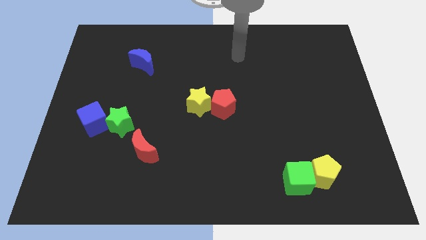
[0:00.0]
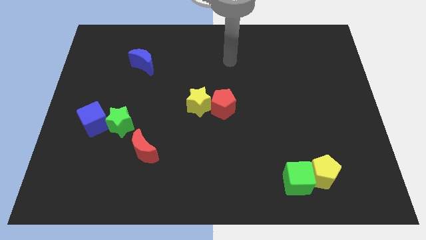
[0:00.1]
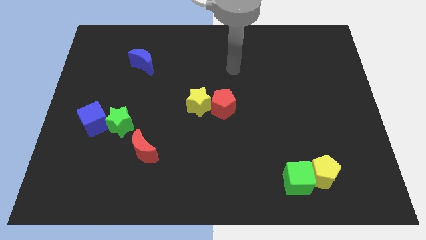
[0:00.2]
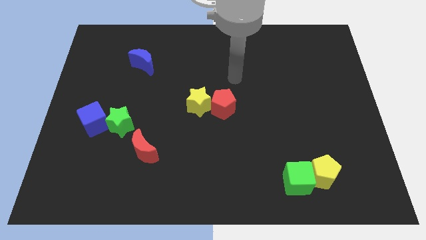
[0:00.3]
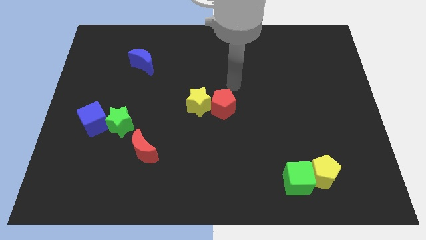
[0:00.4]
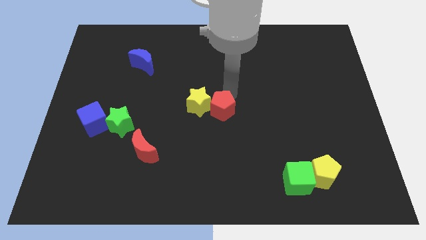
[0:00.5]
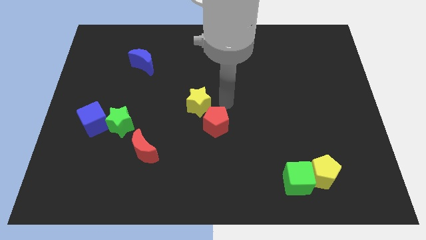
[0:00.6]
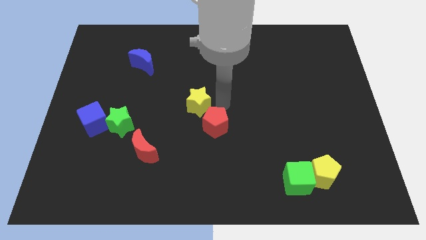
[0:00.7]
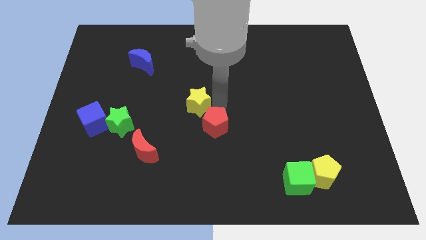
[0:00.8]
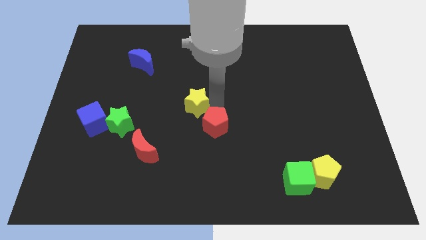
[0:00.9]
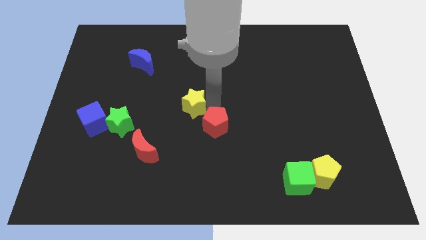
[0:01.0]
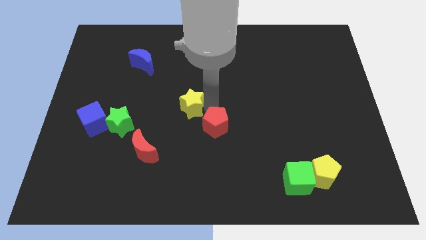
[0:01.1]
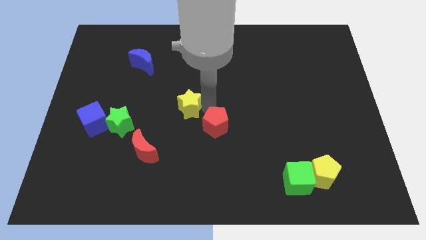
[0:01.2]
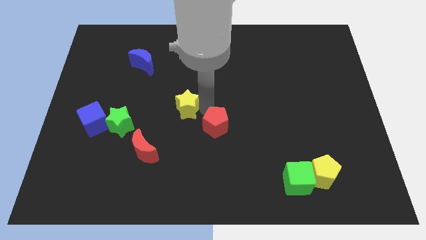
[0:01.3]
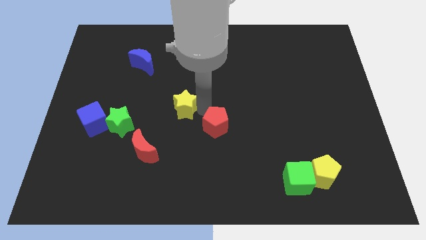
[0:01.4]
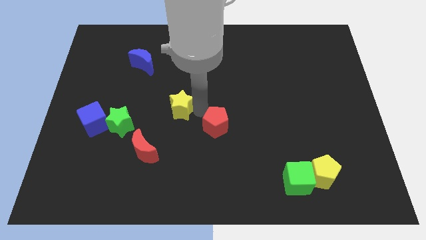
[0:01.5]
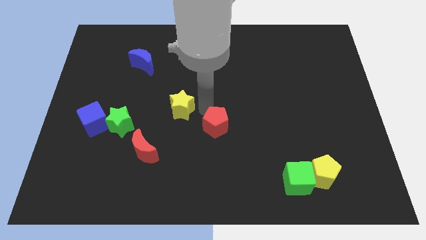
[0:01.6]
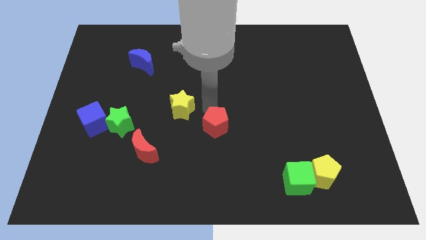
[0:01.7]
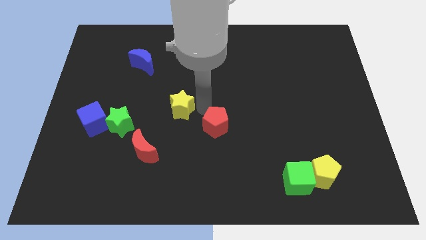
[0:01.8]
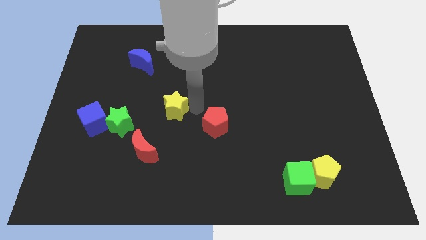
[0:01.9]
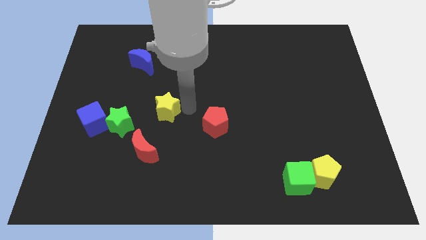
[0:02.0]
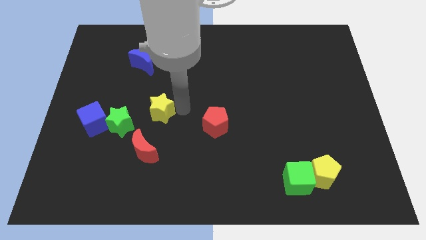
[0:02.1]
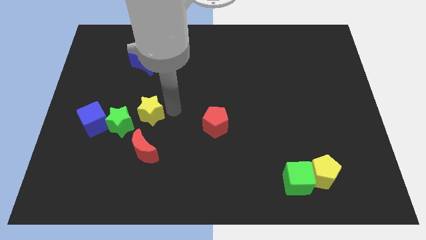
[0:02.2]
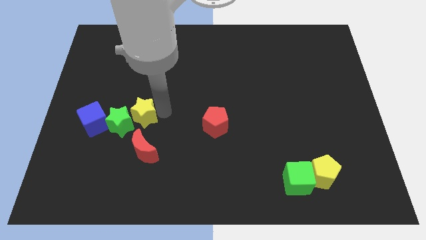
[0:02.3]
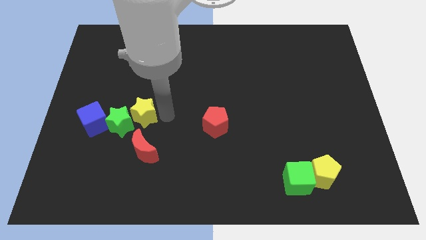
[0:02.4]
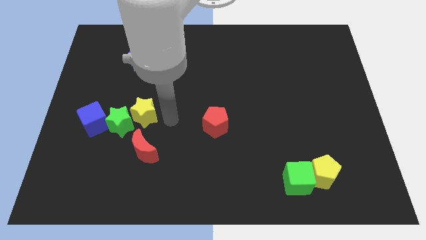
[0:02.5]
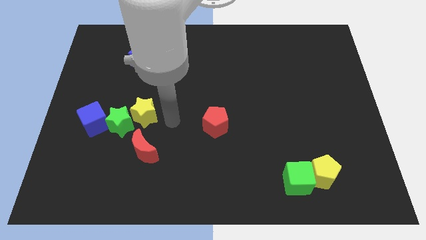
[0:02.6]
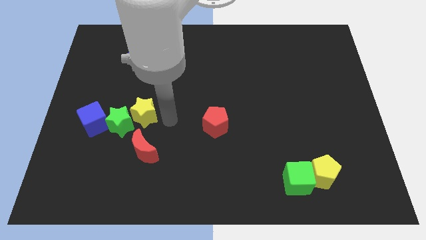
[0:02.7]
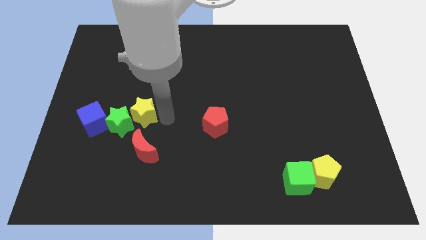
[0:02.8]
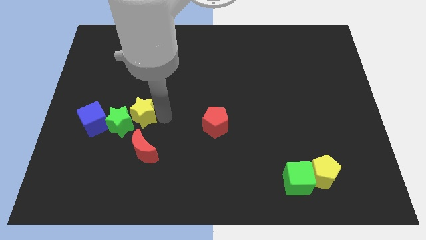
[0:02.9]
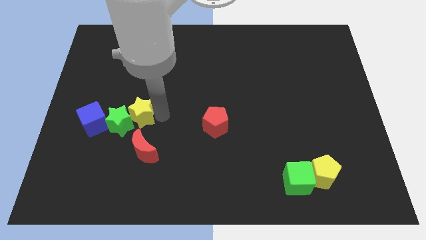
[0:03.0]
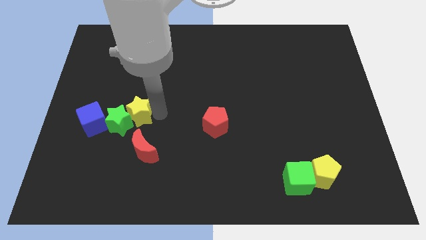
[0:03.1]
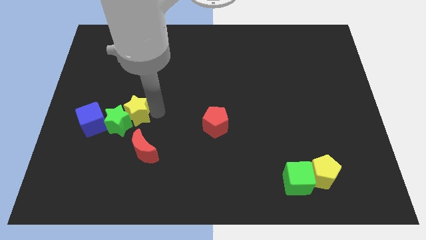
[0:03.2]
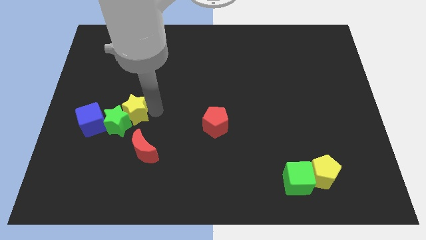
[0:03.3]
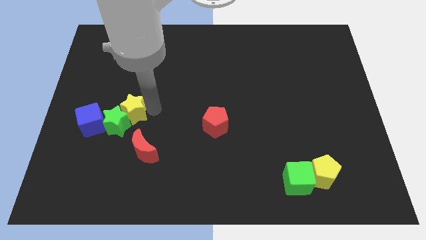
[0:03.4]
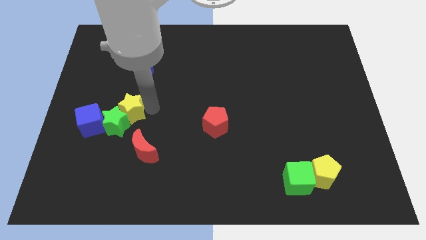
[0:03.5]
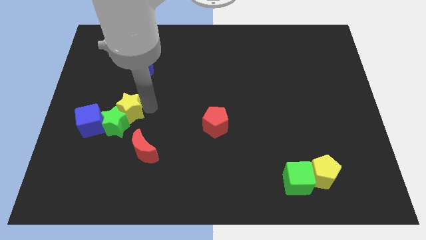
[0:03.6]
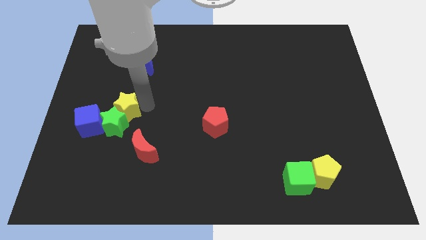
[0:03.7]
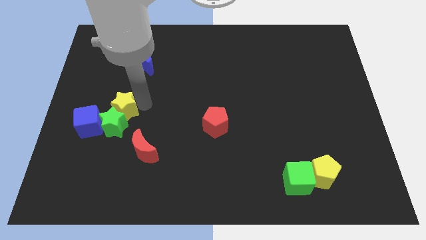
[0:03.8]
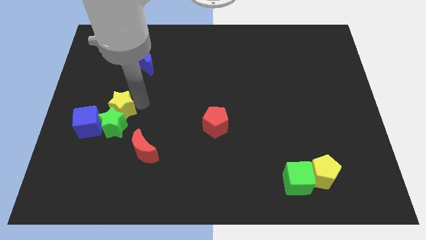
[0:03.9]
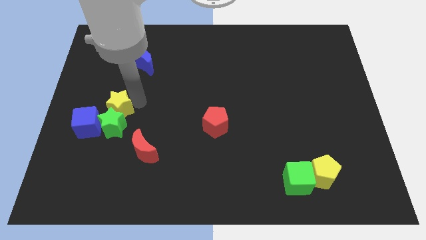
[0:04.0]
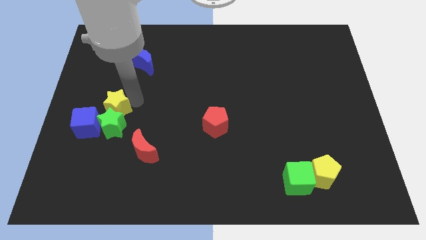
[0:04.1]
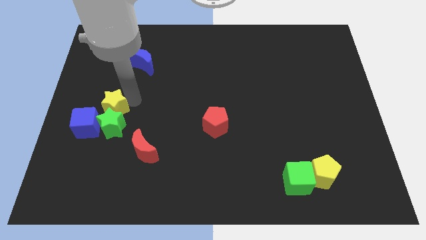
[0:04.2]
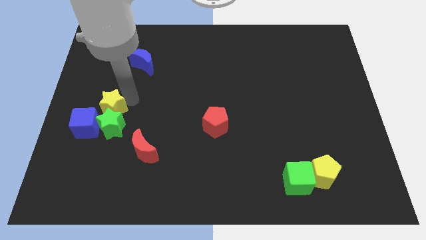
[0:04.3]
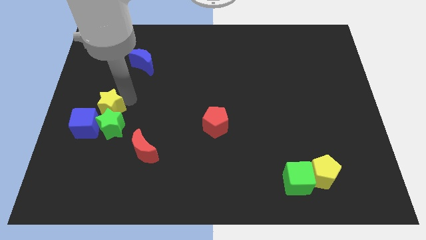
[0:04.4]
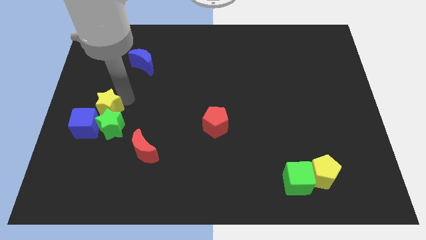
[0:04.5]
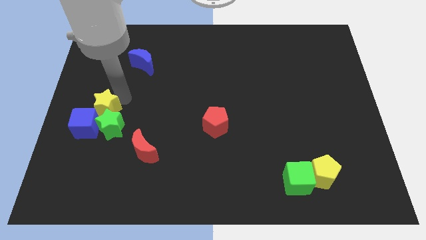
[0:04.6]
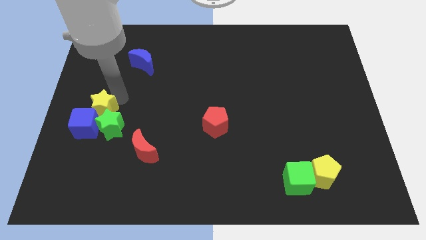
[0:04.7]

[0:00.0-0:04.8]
push the yellow star to the left side

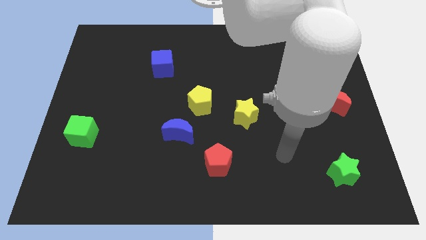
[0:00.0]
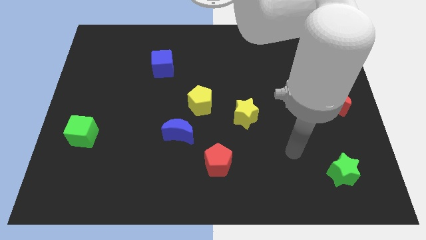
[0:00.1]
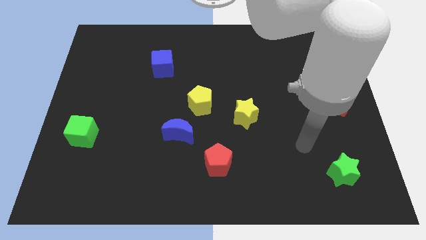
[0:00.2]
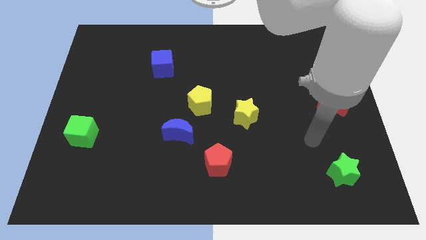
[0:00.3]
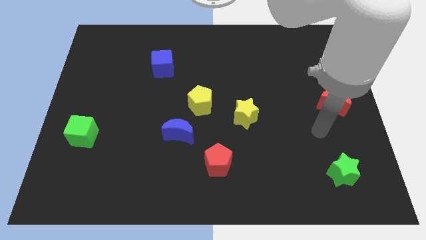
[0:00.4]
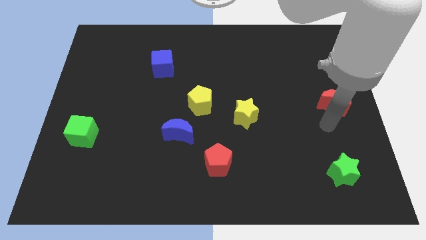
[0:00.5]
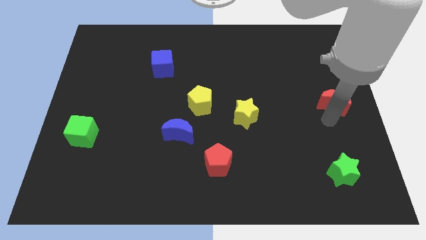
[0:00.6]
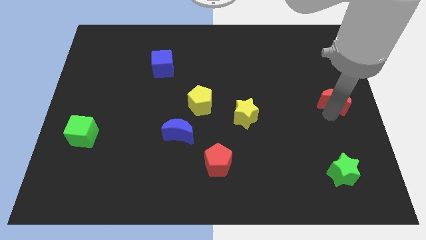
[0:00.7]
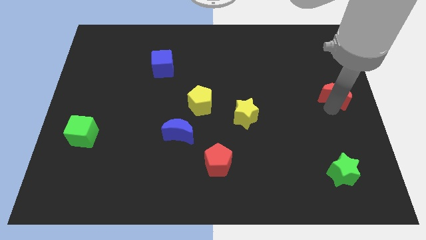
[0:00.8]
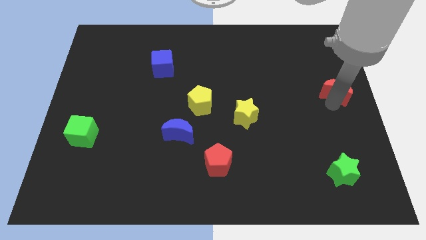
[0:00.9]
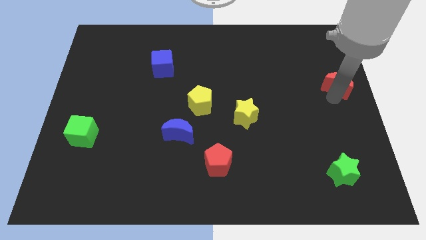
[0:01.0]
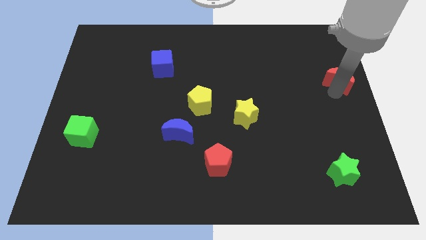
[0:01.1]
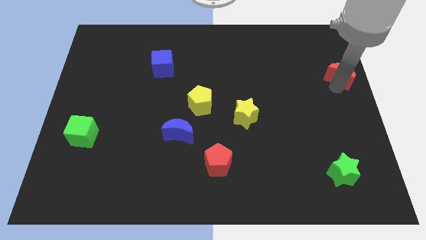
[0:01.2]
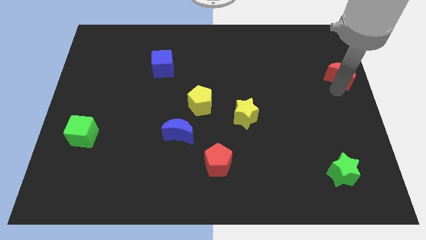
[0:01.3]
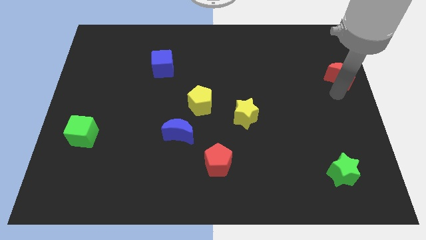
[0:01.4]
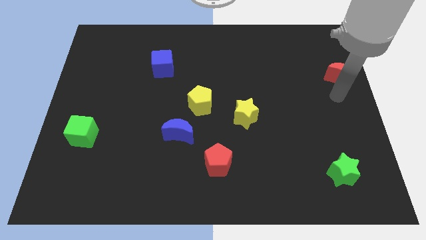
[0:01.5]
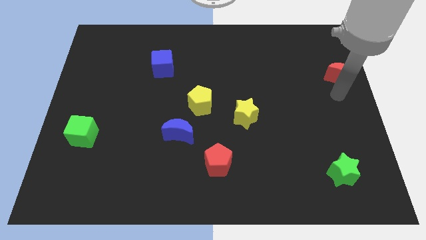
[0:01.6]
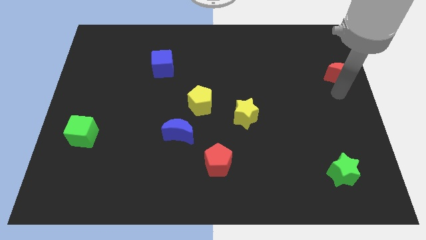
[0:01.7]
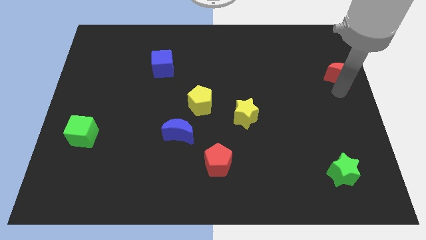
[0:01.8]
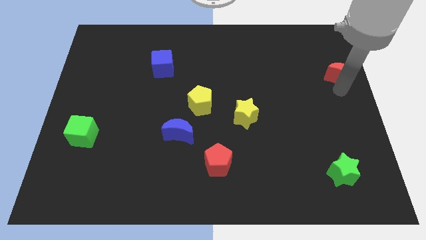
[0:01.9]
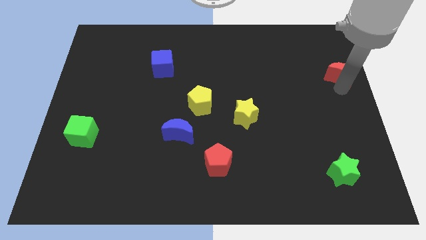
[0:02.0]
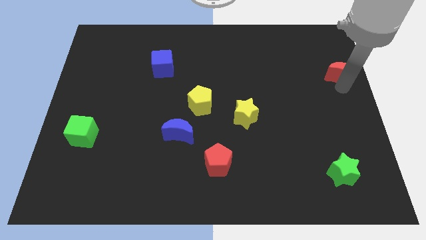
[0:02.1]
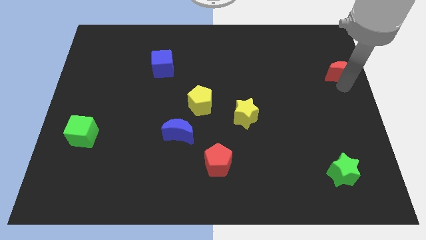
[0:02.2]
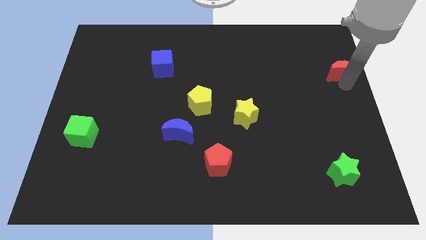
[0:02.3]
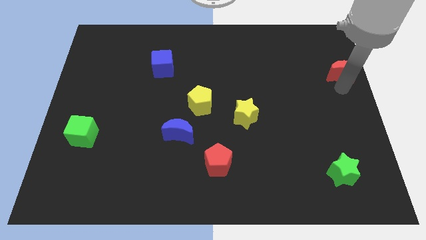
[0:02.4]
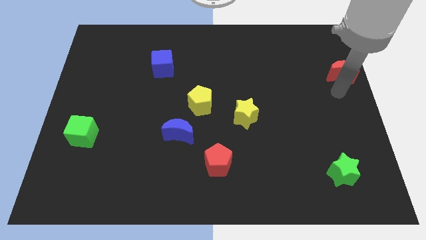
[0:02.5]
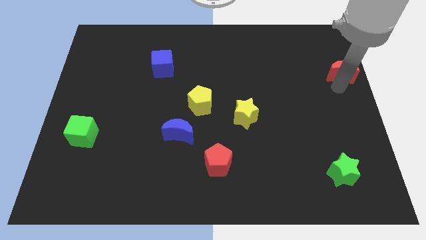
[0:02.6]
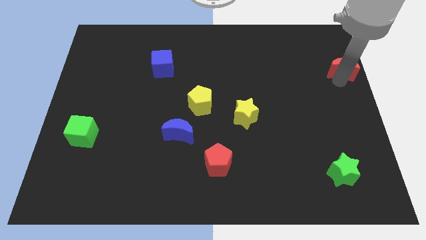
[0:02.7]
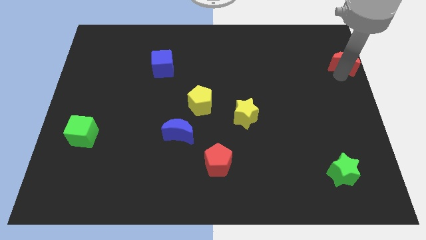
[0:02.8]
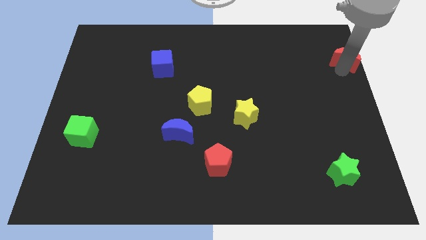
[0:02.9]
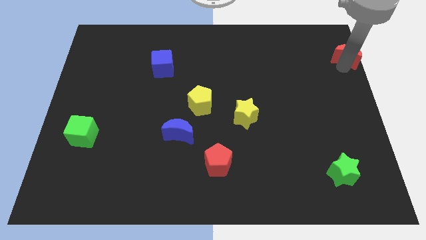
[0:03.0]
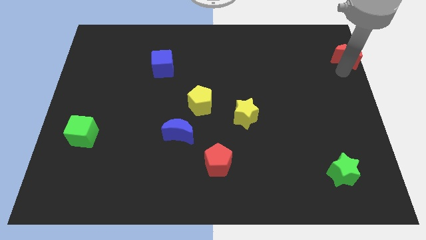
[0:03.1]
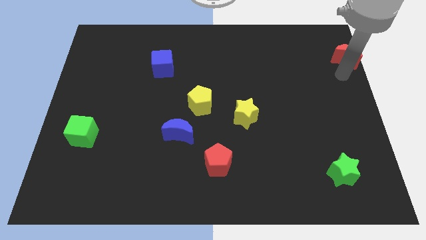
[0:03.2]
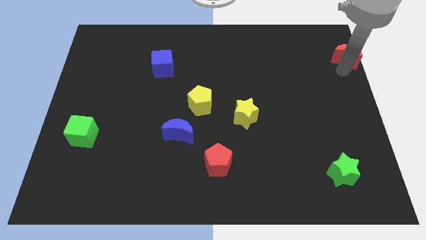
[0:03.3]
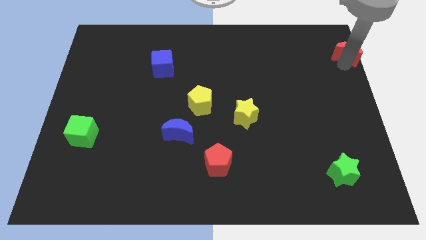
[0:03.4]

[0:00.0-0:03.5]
put the red moon to the upper right corner
